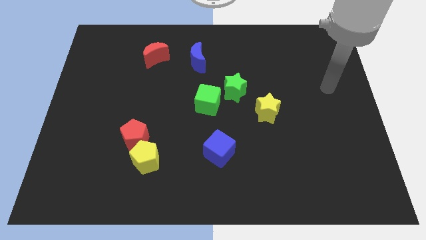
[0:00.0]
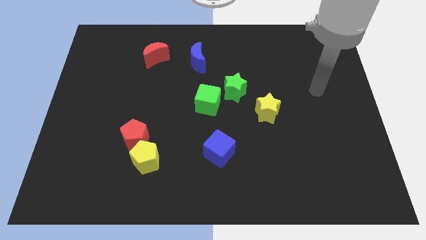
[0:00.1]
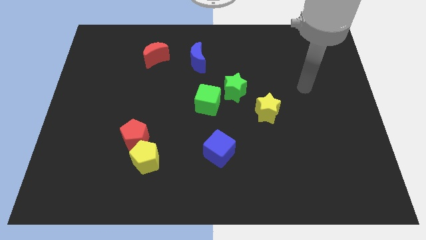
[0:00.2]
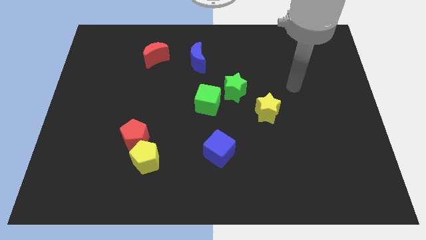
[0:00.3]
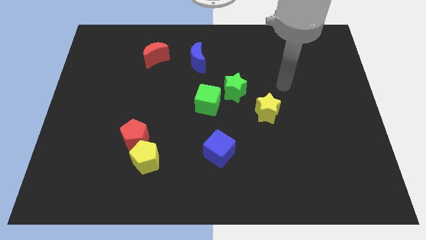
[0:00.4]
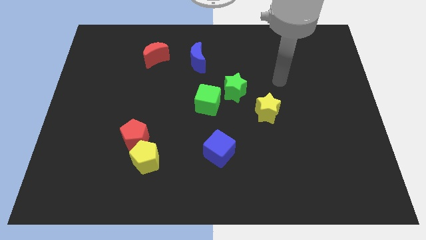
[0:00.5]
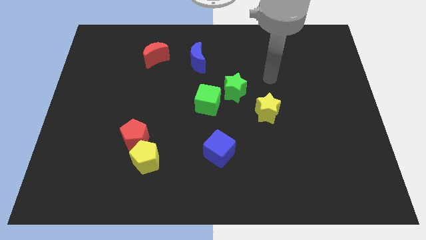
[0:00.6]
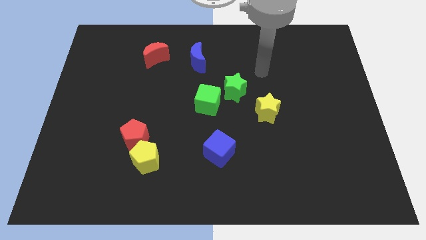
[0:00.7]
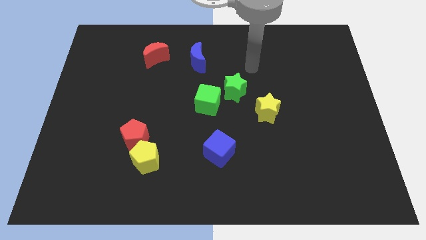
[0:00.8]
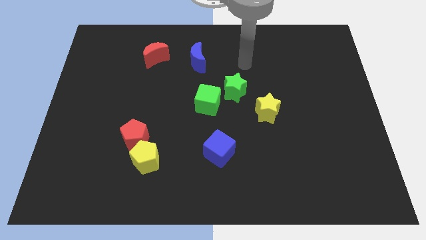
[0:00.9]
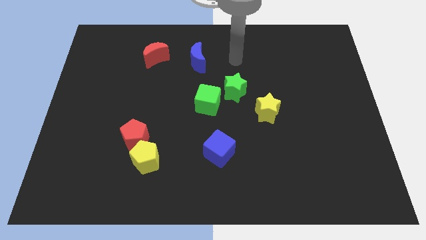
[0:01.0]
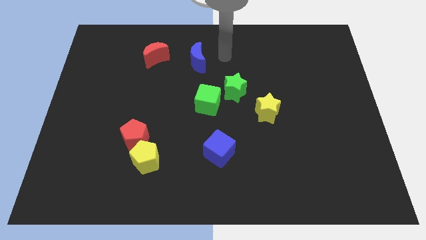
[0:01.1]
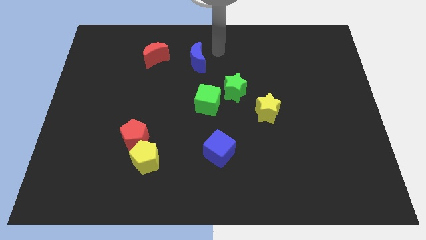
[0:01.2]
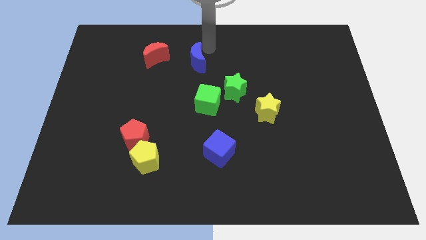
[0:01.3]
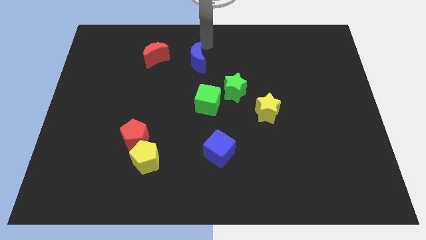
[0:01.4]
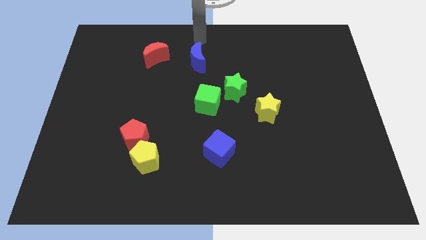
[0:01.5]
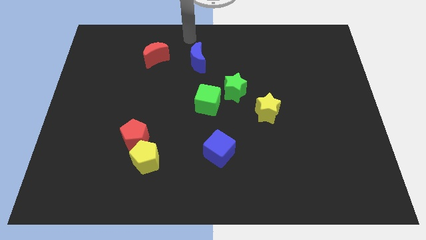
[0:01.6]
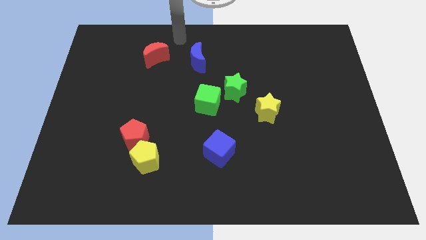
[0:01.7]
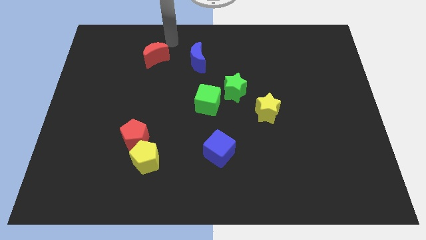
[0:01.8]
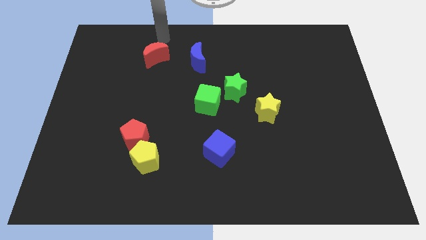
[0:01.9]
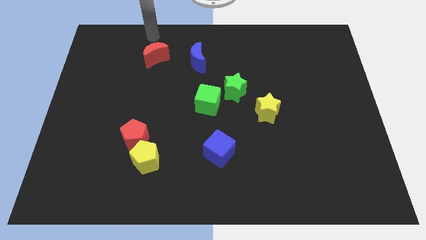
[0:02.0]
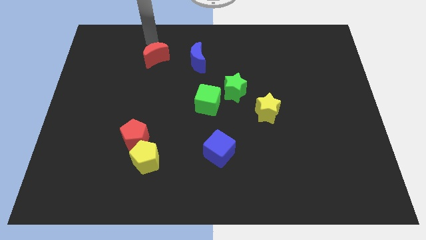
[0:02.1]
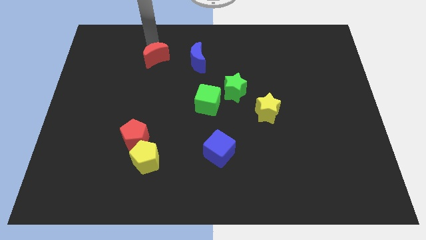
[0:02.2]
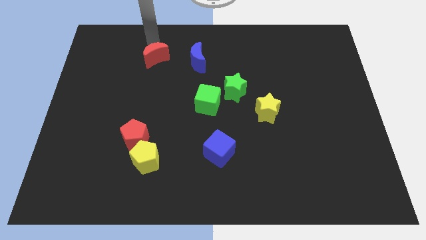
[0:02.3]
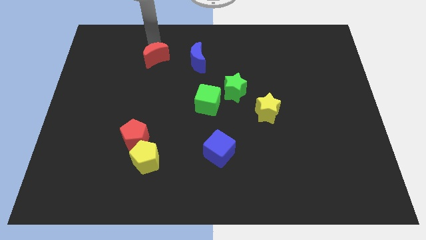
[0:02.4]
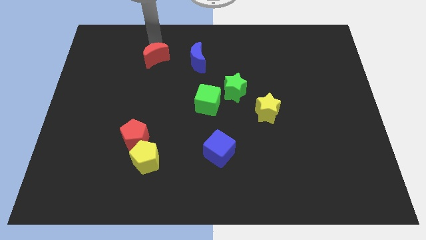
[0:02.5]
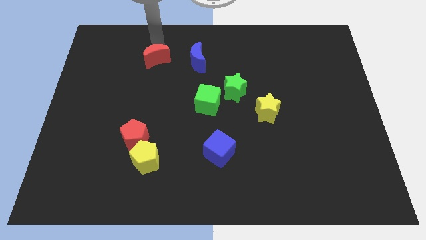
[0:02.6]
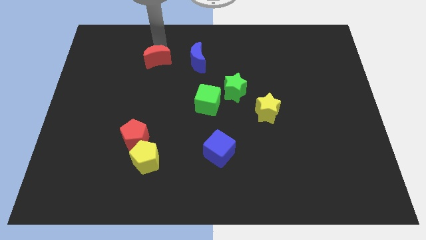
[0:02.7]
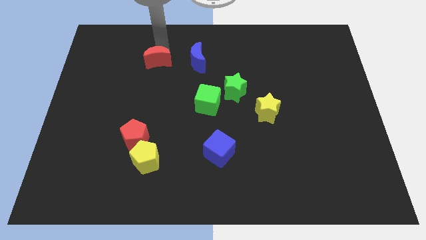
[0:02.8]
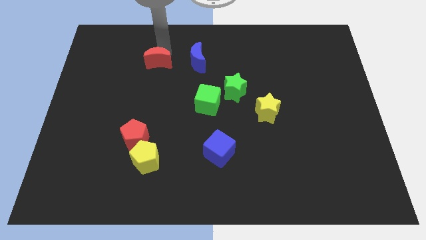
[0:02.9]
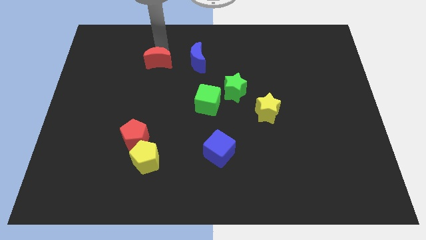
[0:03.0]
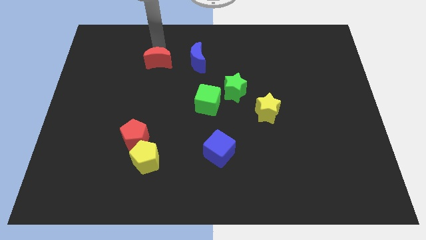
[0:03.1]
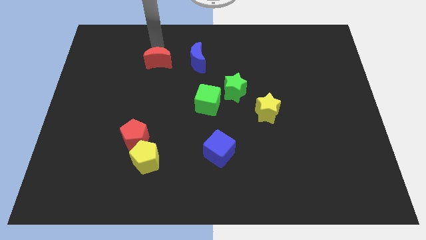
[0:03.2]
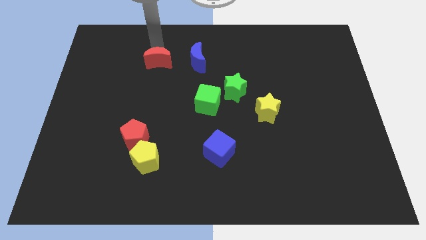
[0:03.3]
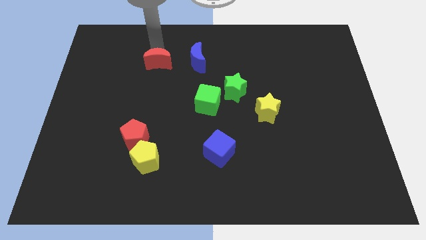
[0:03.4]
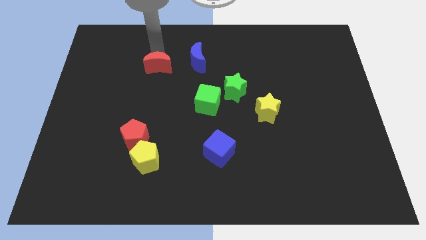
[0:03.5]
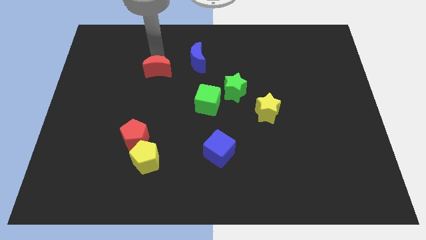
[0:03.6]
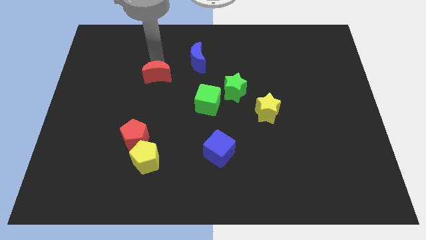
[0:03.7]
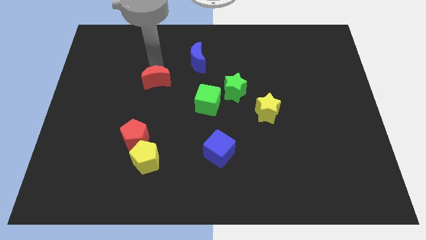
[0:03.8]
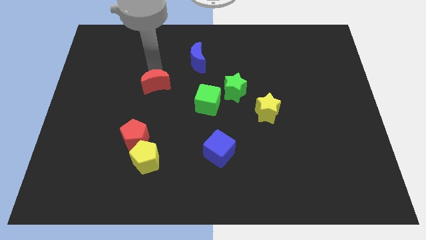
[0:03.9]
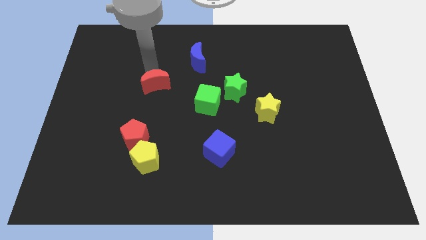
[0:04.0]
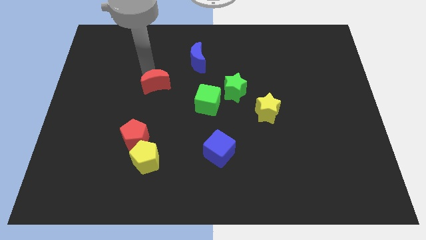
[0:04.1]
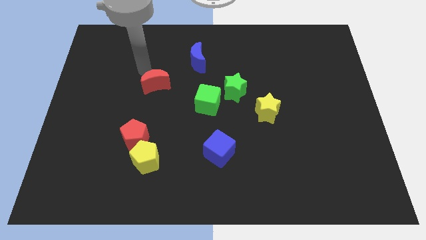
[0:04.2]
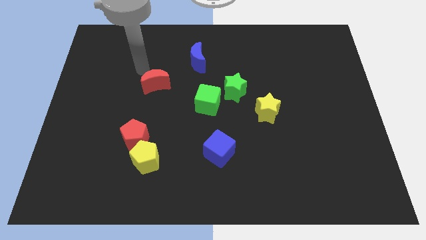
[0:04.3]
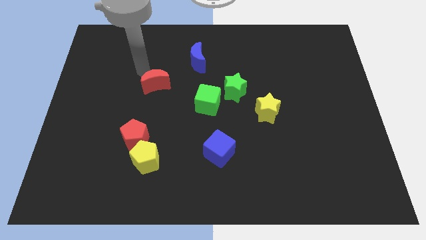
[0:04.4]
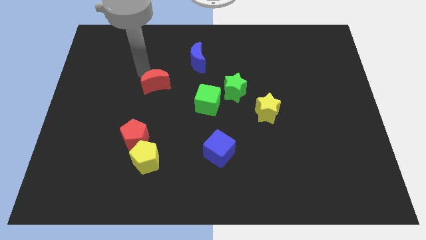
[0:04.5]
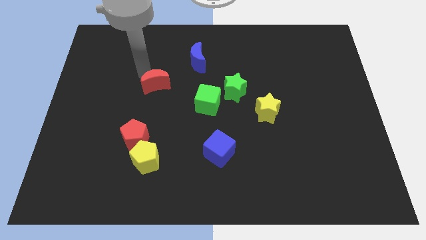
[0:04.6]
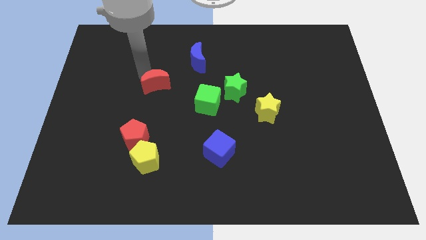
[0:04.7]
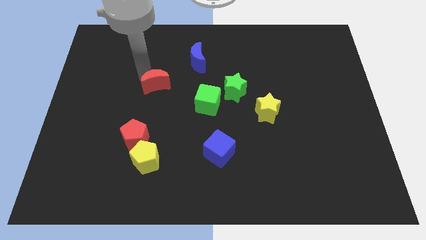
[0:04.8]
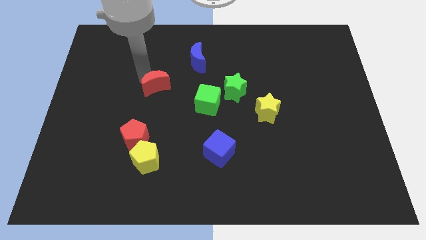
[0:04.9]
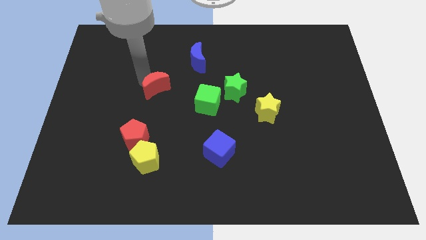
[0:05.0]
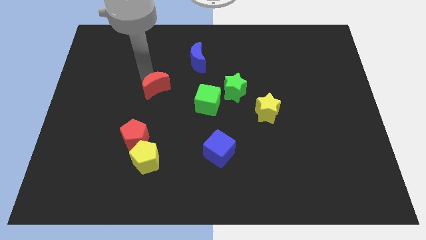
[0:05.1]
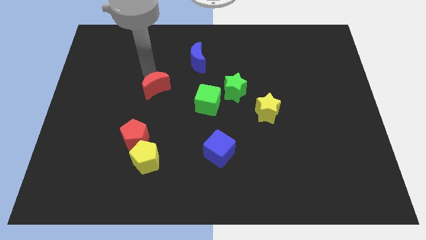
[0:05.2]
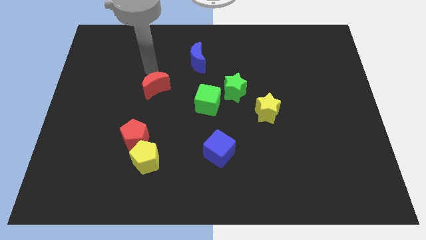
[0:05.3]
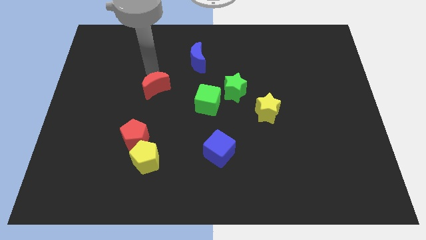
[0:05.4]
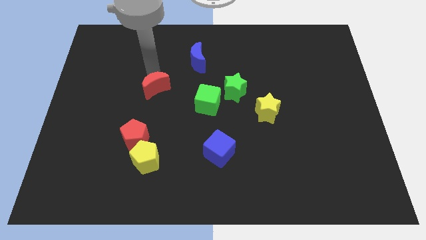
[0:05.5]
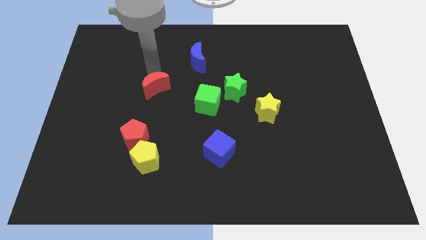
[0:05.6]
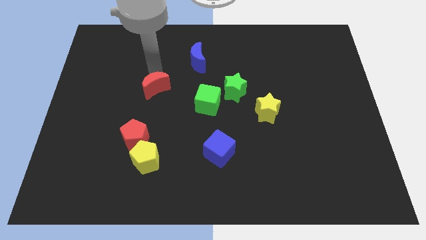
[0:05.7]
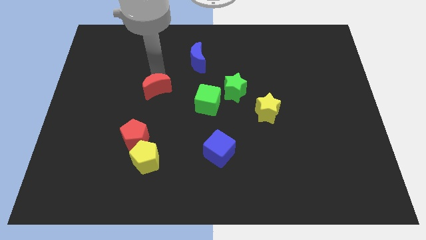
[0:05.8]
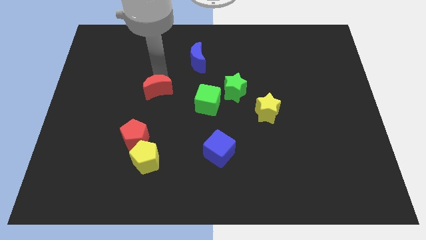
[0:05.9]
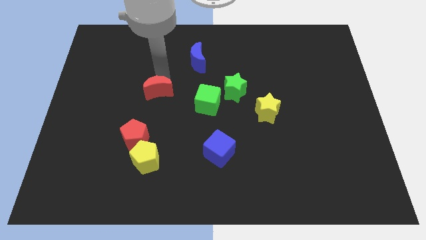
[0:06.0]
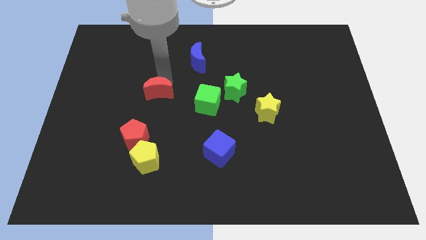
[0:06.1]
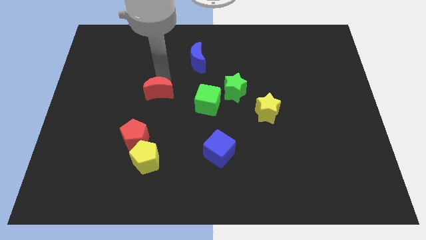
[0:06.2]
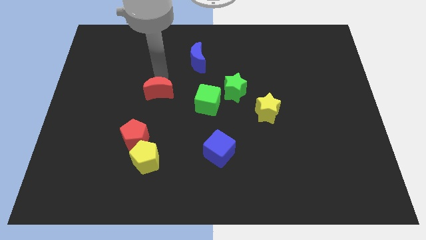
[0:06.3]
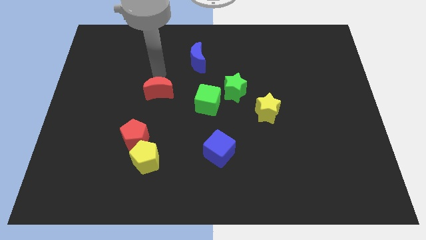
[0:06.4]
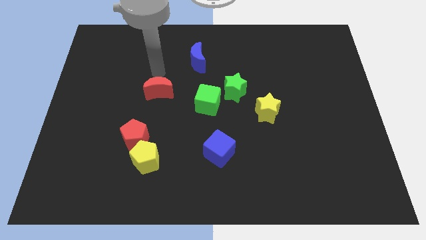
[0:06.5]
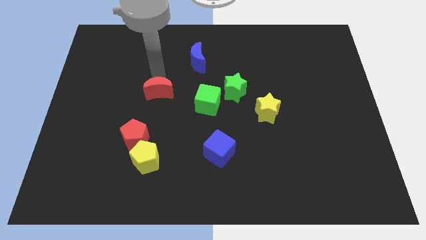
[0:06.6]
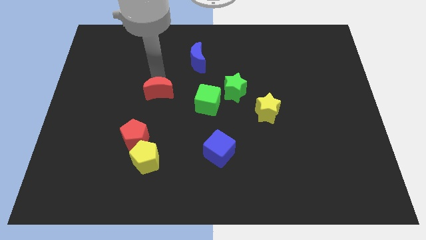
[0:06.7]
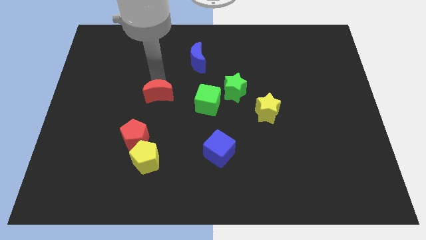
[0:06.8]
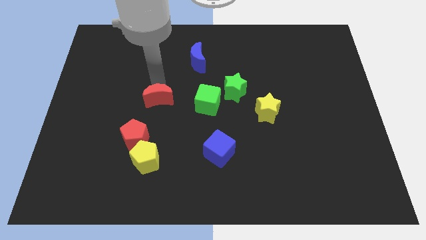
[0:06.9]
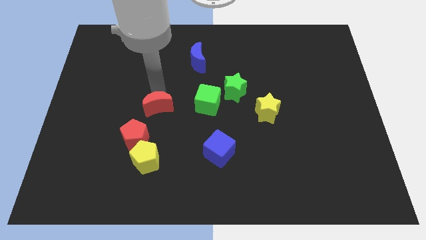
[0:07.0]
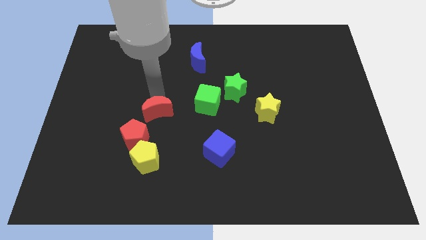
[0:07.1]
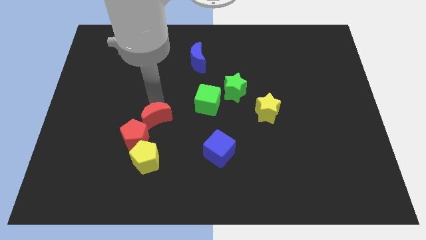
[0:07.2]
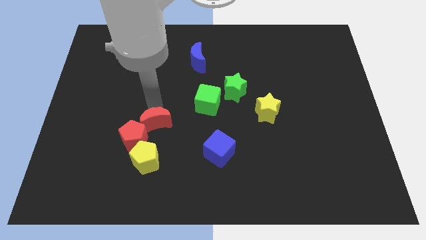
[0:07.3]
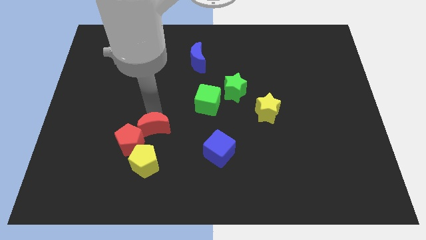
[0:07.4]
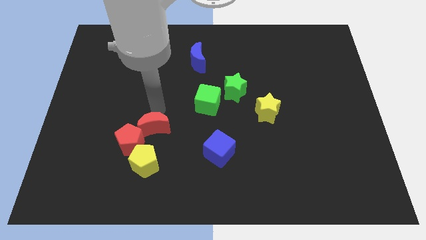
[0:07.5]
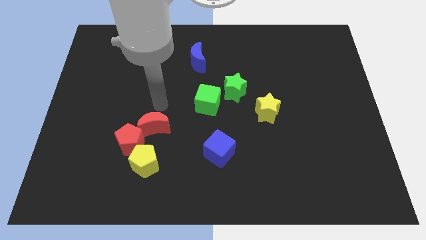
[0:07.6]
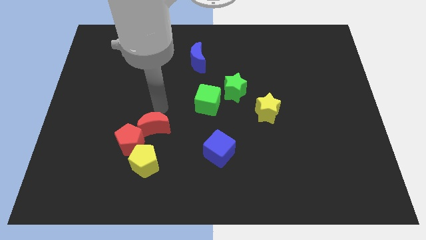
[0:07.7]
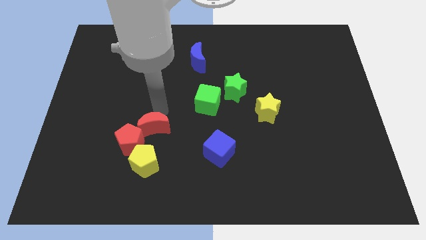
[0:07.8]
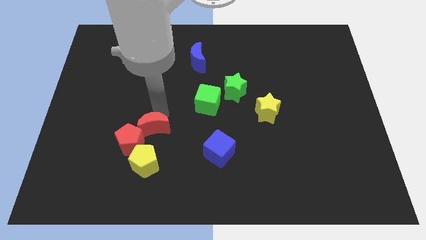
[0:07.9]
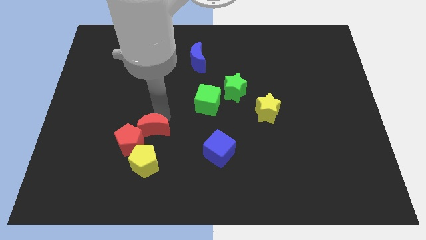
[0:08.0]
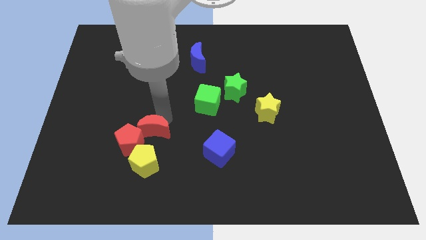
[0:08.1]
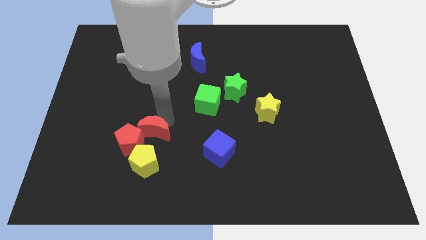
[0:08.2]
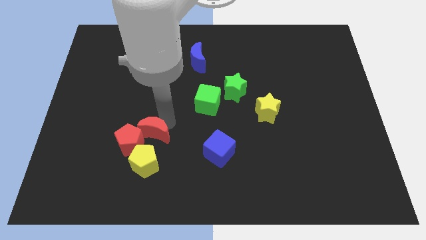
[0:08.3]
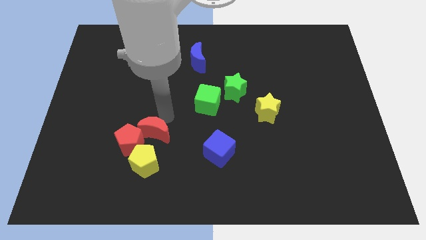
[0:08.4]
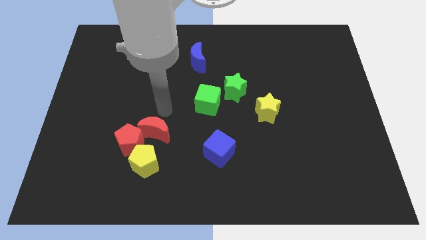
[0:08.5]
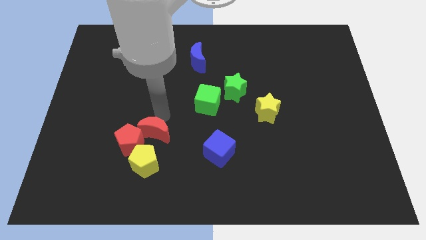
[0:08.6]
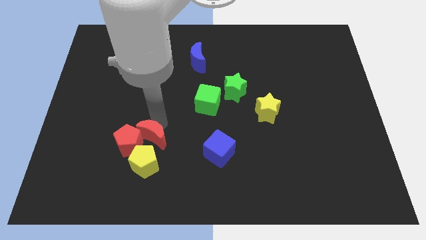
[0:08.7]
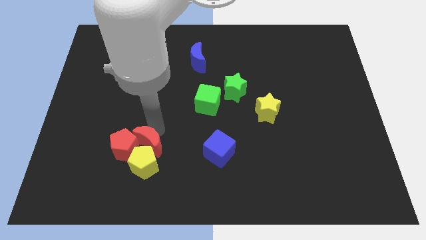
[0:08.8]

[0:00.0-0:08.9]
move the red moon close to the yellow pentagon
